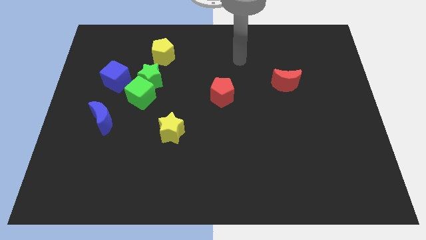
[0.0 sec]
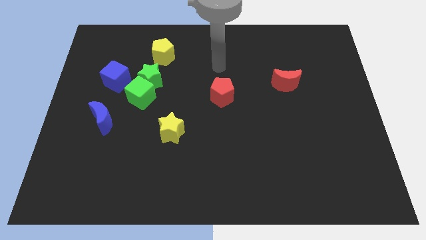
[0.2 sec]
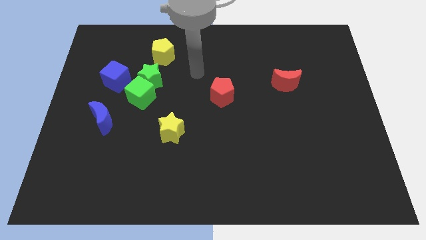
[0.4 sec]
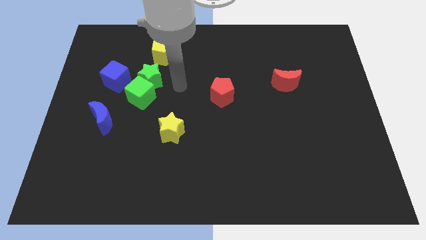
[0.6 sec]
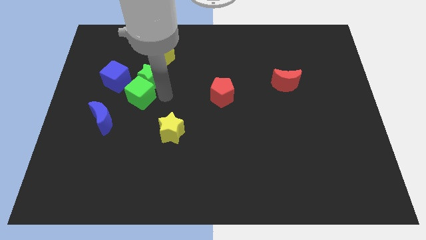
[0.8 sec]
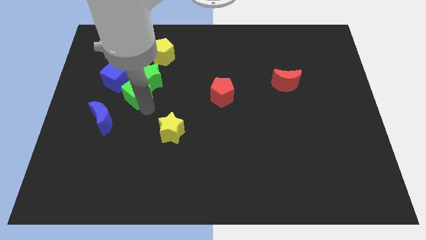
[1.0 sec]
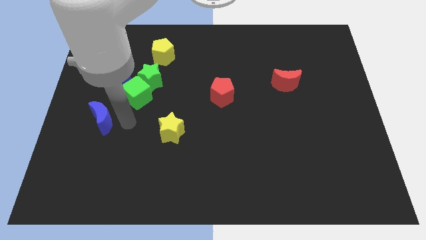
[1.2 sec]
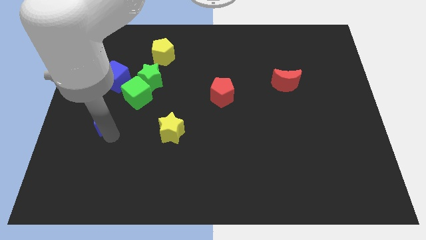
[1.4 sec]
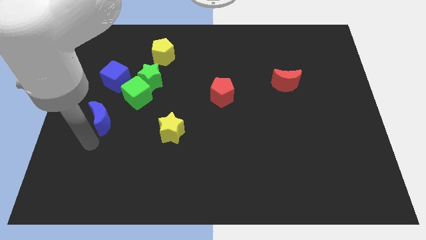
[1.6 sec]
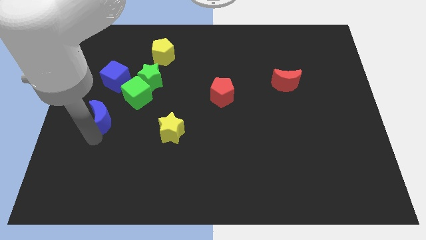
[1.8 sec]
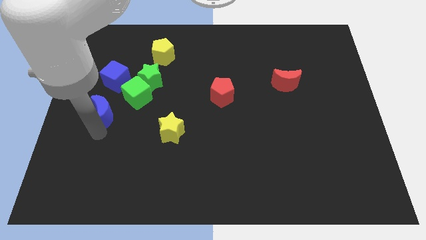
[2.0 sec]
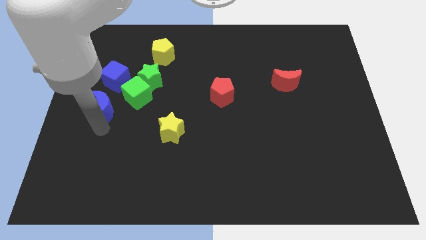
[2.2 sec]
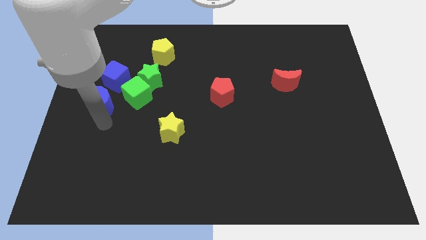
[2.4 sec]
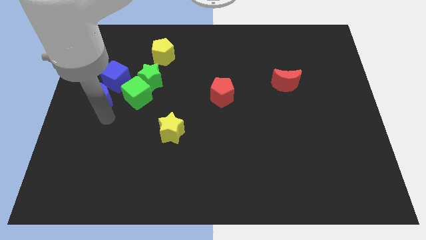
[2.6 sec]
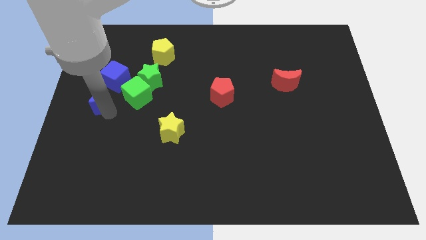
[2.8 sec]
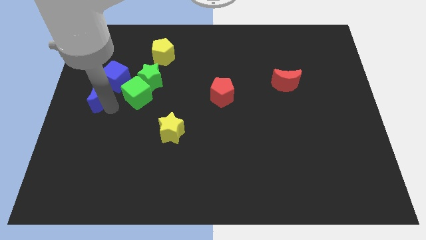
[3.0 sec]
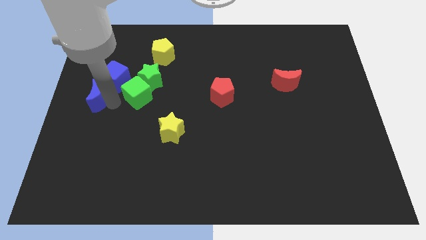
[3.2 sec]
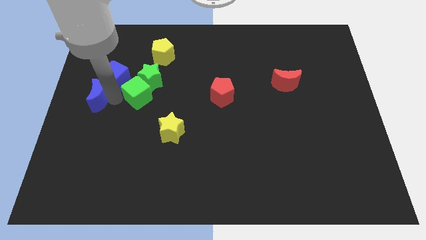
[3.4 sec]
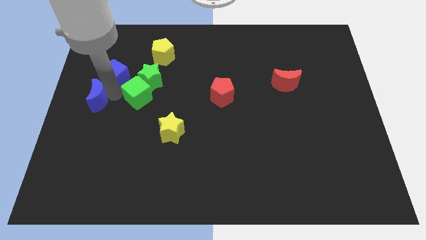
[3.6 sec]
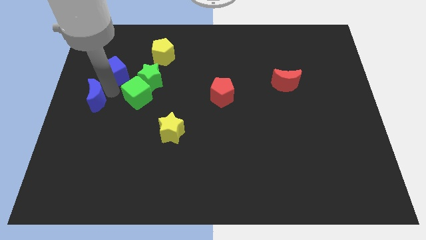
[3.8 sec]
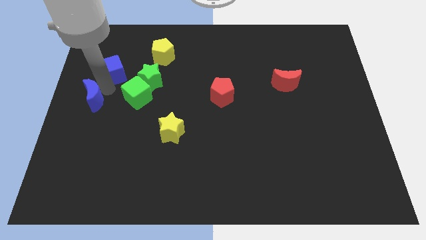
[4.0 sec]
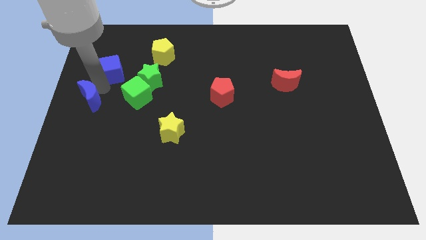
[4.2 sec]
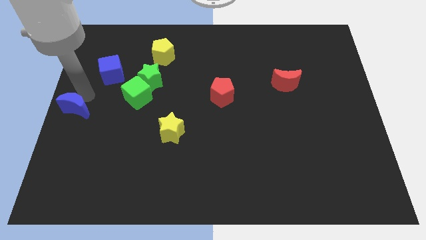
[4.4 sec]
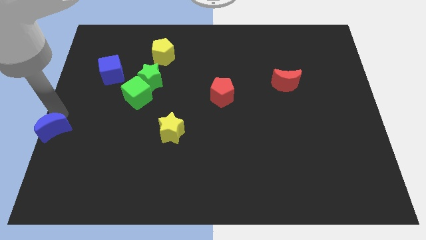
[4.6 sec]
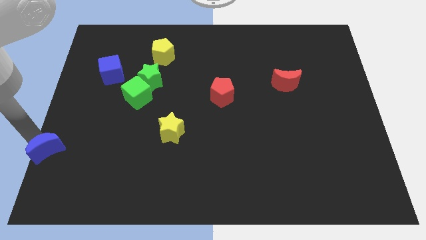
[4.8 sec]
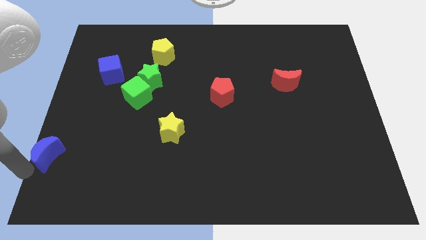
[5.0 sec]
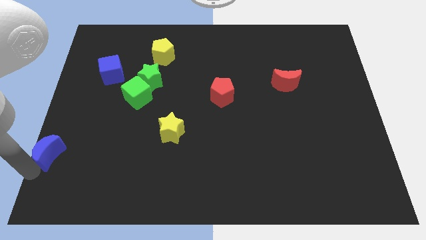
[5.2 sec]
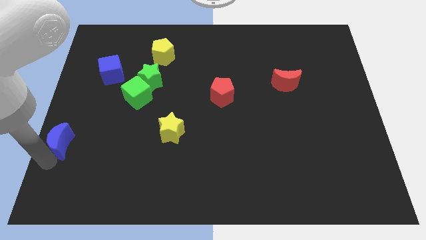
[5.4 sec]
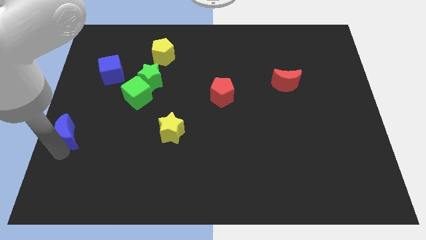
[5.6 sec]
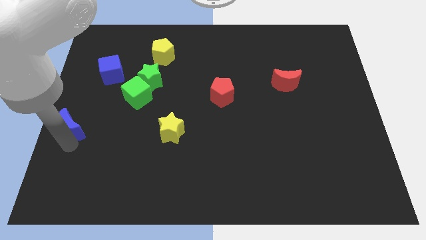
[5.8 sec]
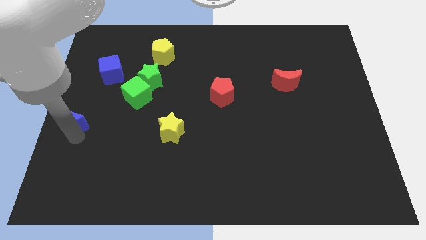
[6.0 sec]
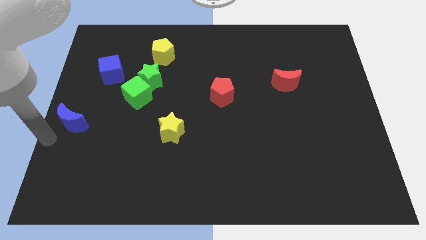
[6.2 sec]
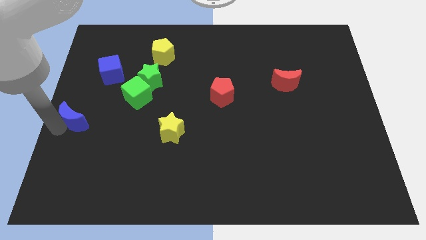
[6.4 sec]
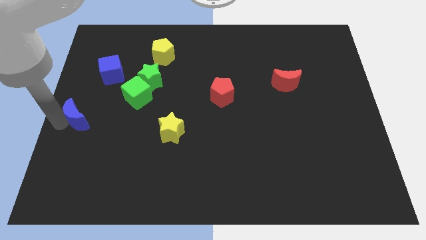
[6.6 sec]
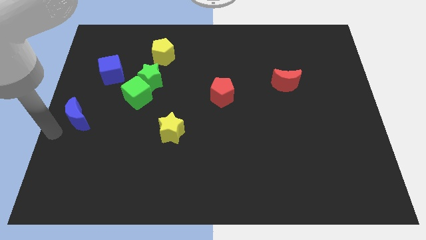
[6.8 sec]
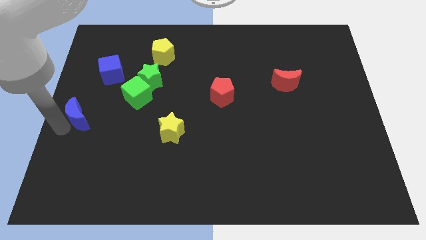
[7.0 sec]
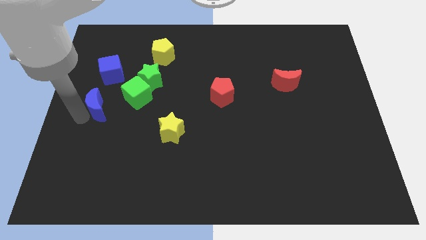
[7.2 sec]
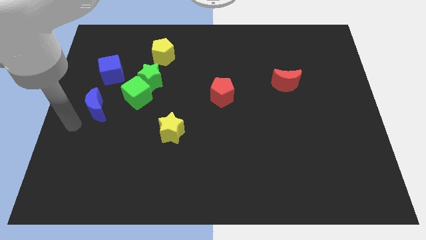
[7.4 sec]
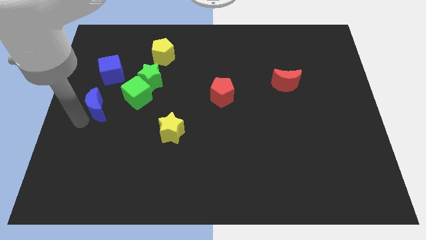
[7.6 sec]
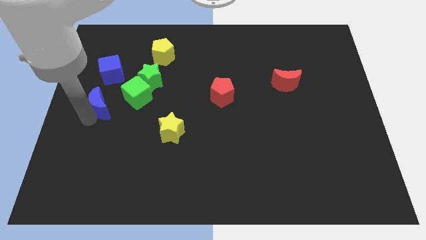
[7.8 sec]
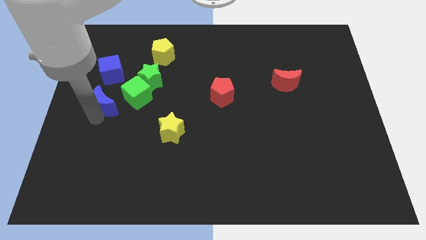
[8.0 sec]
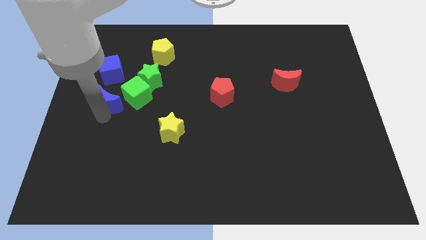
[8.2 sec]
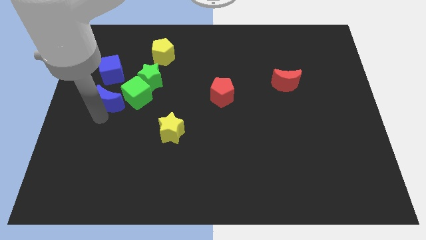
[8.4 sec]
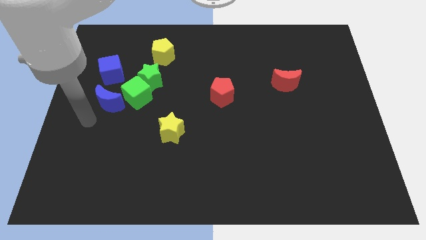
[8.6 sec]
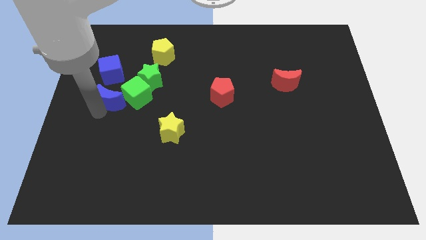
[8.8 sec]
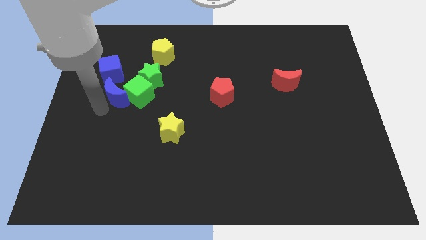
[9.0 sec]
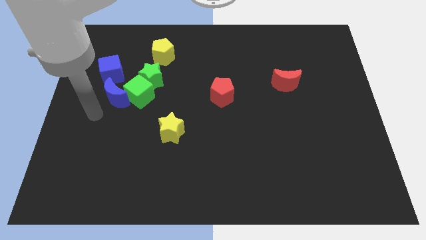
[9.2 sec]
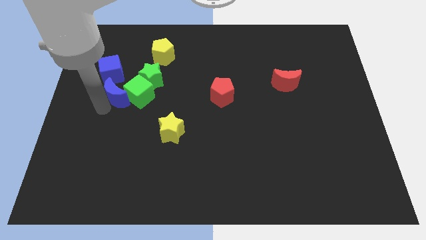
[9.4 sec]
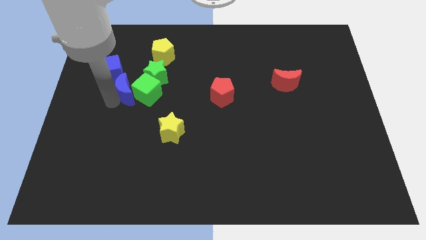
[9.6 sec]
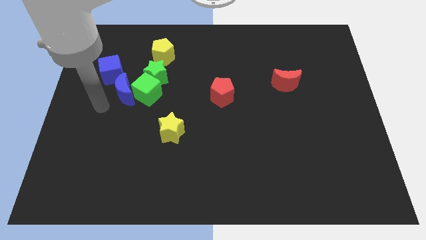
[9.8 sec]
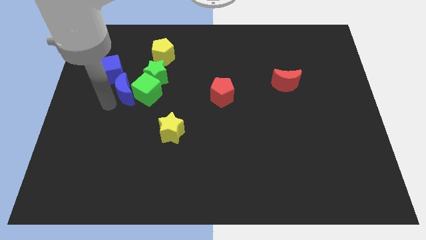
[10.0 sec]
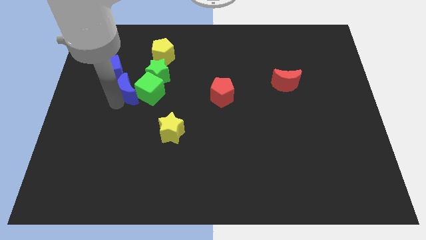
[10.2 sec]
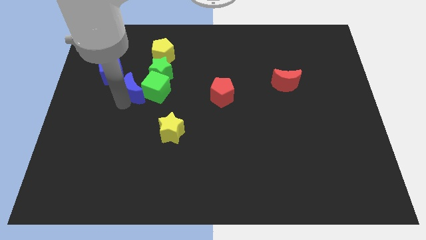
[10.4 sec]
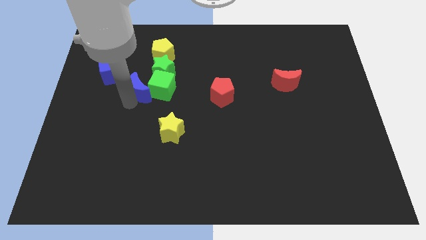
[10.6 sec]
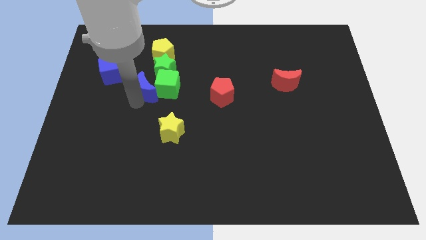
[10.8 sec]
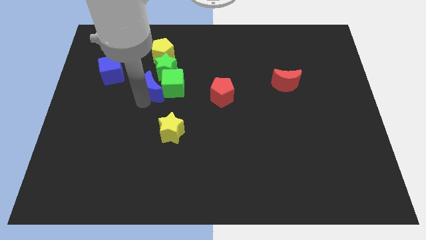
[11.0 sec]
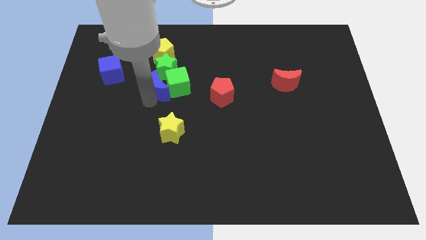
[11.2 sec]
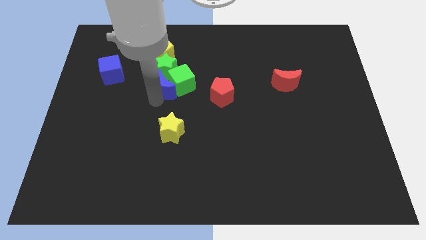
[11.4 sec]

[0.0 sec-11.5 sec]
push the blue moon to the green star

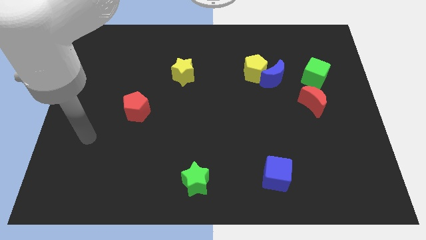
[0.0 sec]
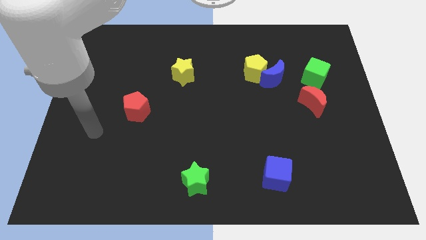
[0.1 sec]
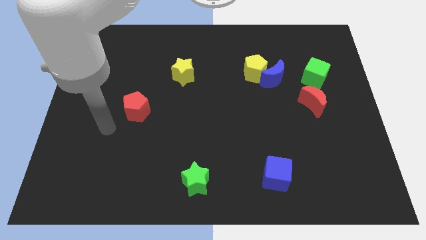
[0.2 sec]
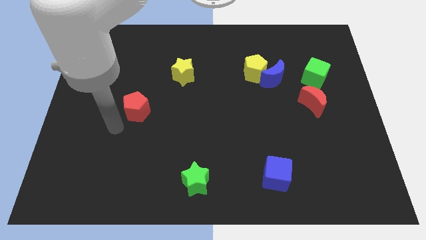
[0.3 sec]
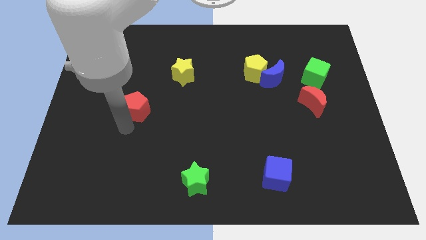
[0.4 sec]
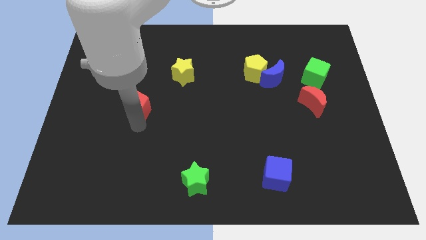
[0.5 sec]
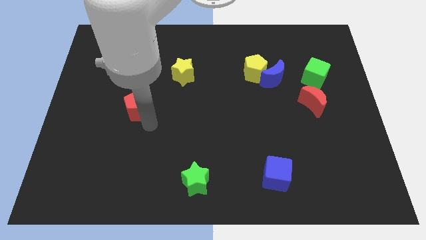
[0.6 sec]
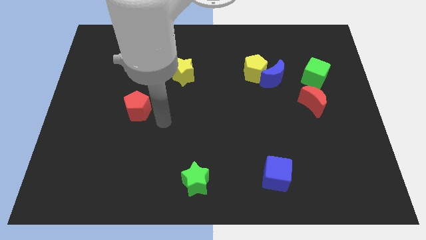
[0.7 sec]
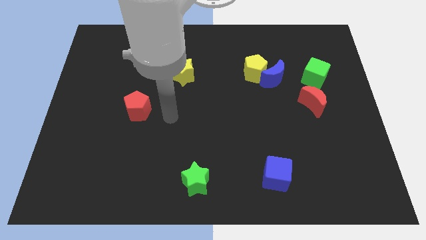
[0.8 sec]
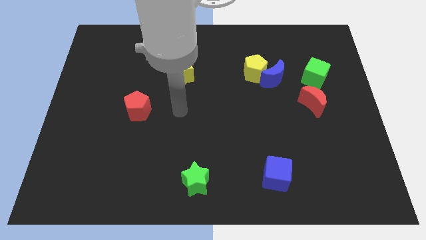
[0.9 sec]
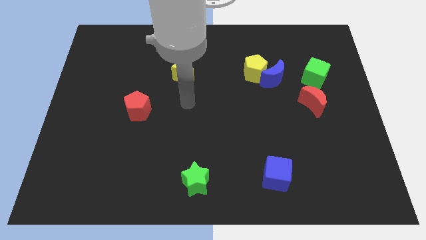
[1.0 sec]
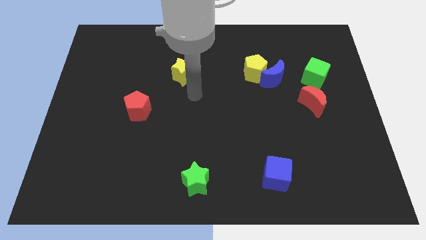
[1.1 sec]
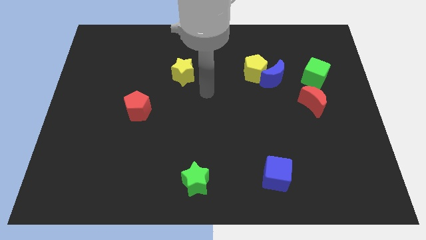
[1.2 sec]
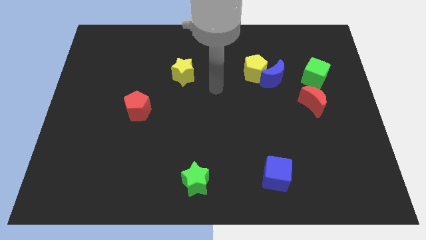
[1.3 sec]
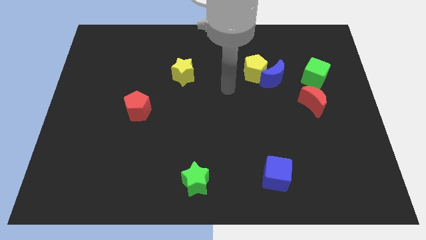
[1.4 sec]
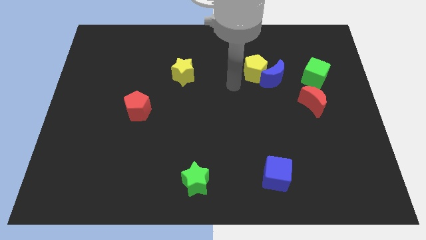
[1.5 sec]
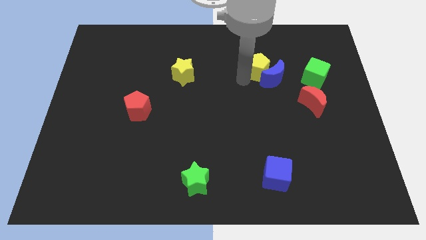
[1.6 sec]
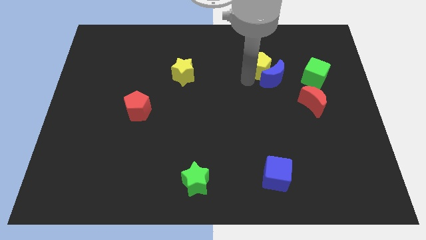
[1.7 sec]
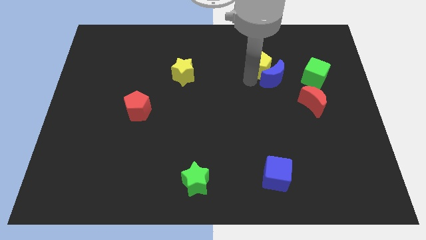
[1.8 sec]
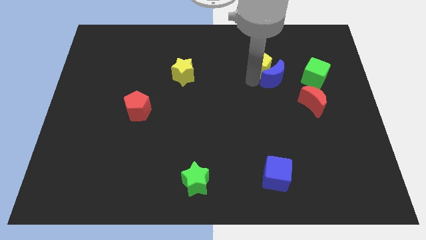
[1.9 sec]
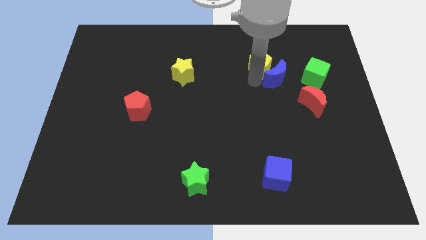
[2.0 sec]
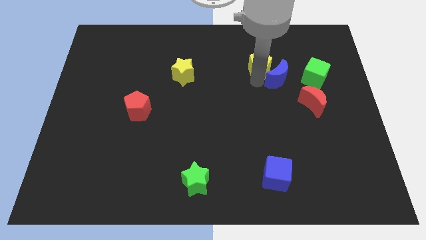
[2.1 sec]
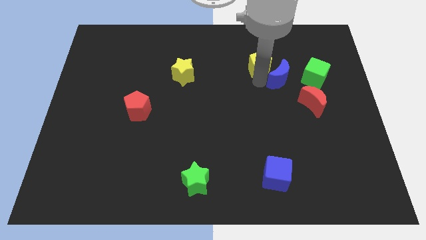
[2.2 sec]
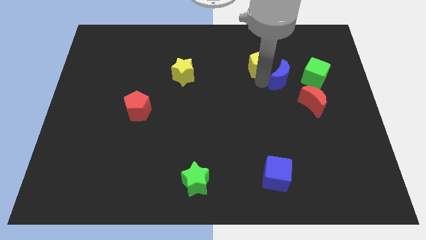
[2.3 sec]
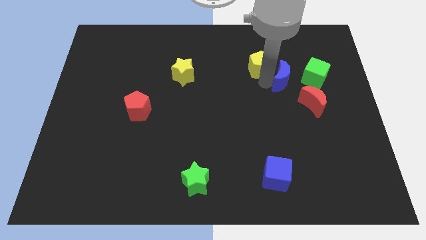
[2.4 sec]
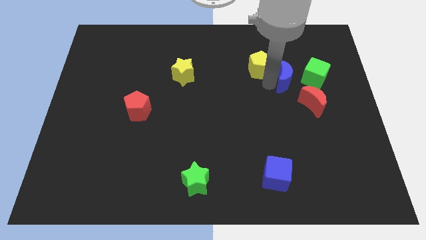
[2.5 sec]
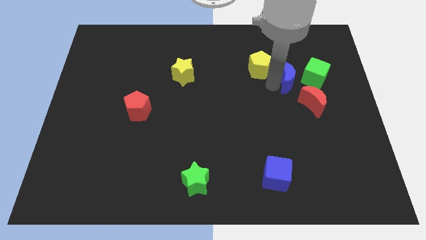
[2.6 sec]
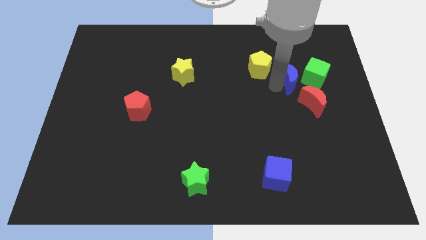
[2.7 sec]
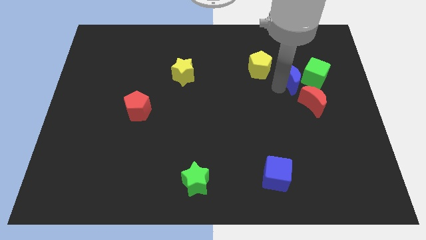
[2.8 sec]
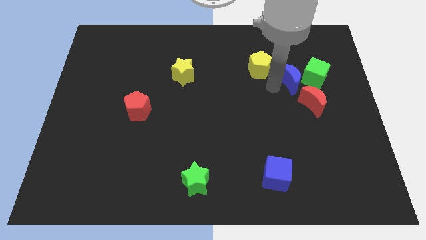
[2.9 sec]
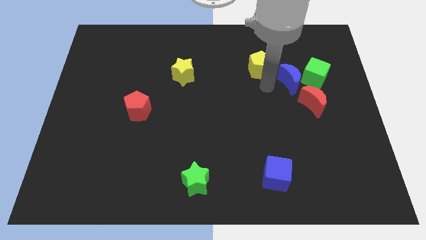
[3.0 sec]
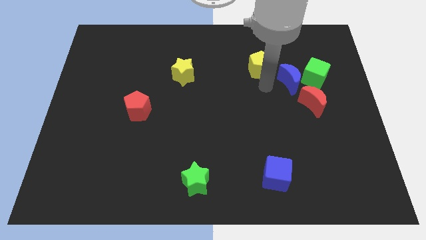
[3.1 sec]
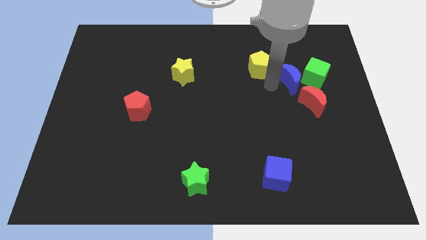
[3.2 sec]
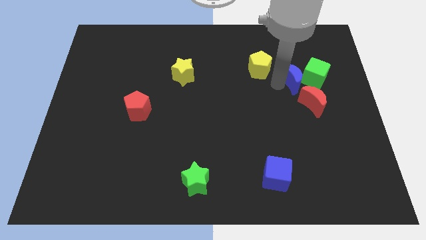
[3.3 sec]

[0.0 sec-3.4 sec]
put the blue moon towards the green cube
